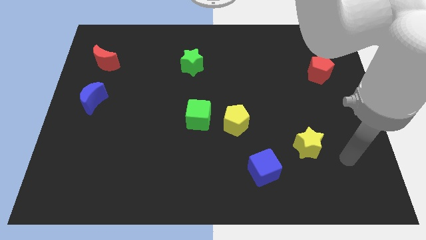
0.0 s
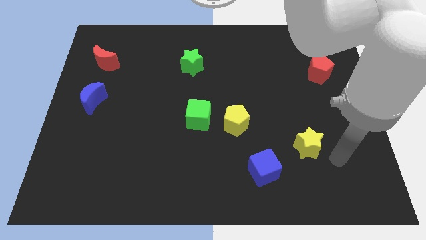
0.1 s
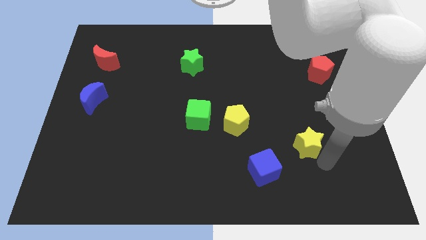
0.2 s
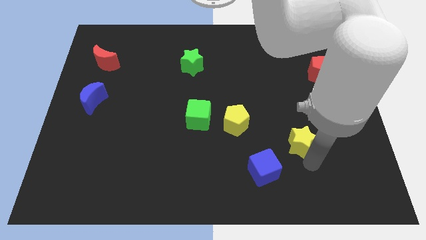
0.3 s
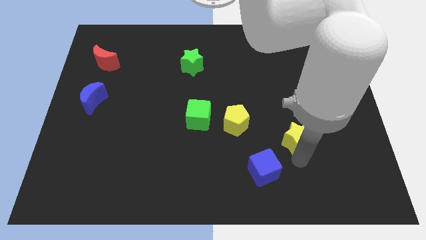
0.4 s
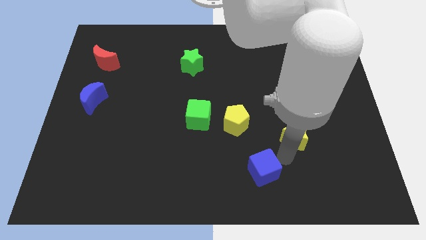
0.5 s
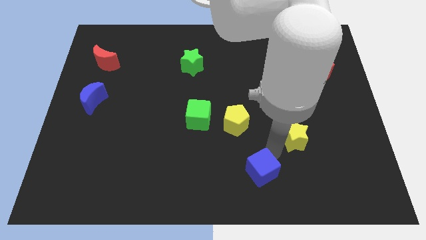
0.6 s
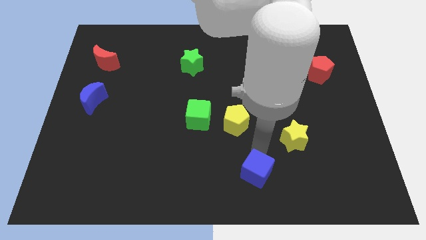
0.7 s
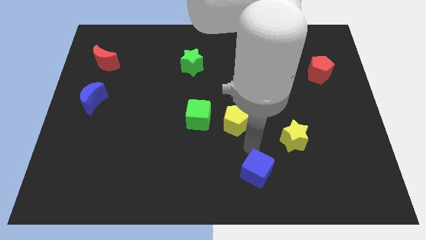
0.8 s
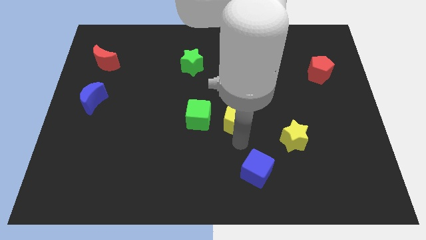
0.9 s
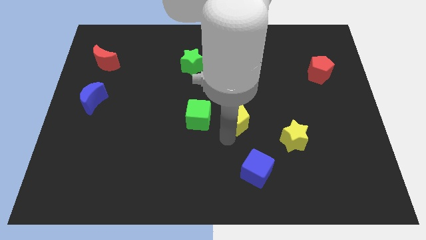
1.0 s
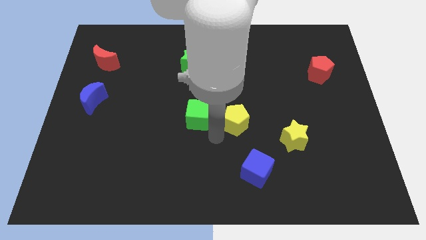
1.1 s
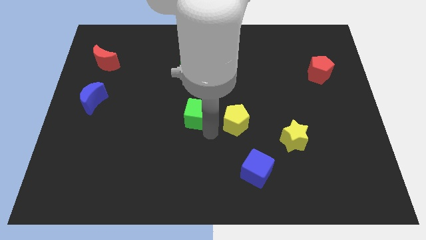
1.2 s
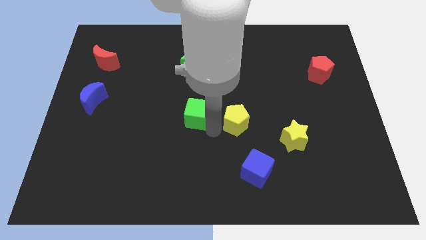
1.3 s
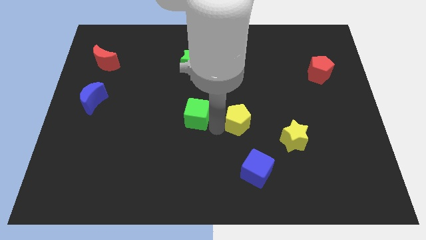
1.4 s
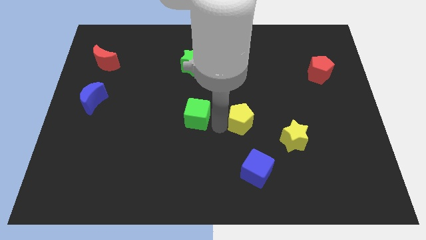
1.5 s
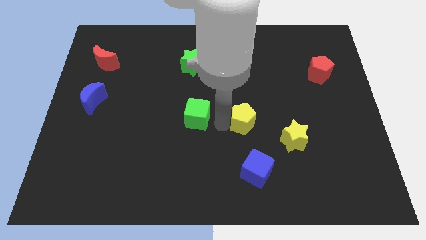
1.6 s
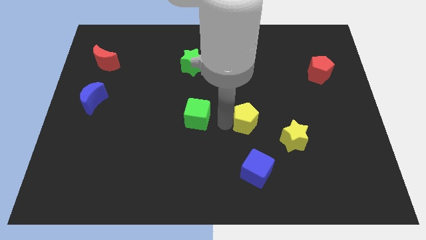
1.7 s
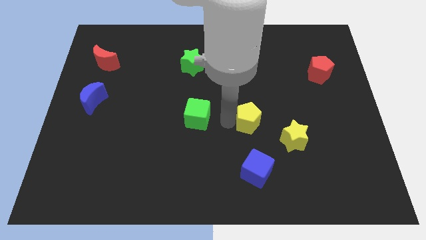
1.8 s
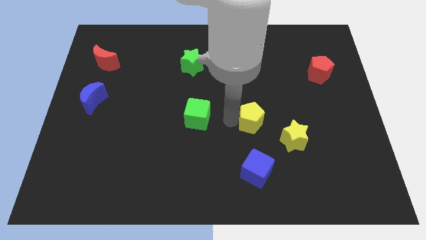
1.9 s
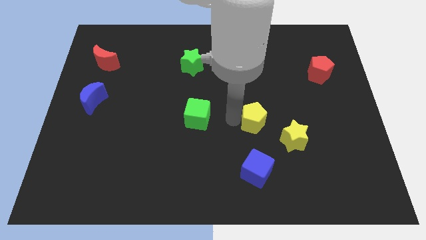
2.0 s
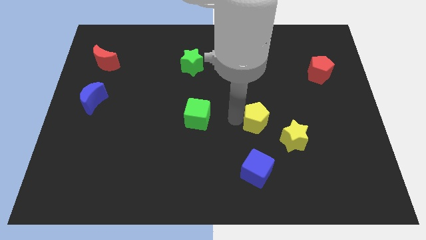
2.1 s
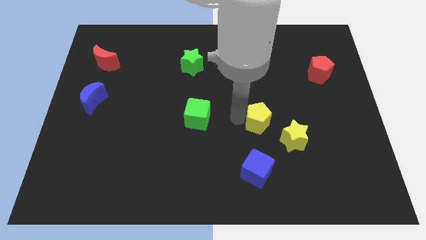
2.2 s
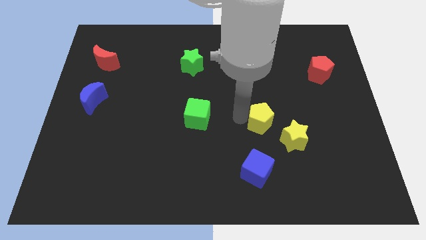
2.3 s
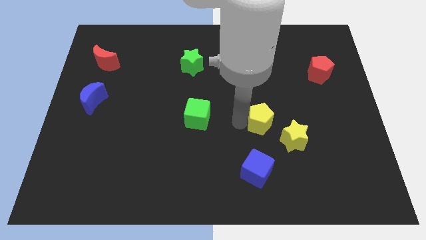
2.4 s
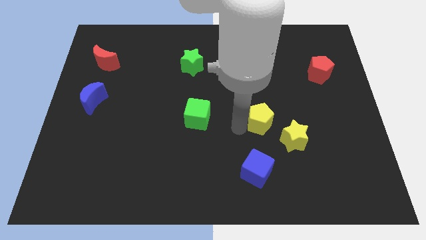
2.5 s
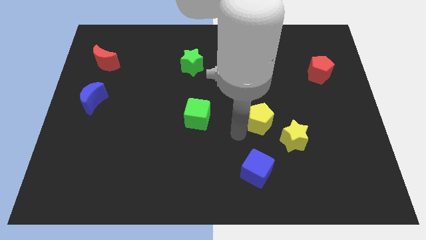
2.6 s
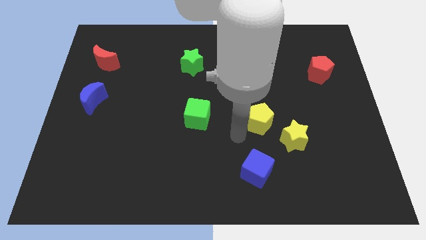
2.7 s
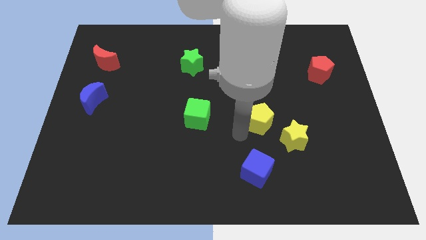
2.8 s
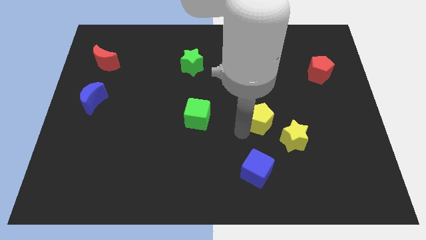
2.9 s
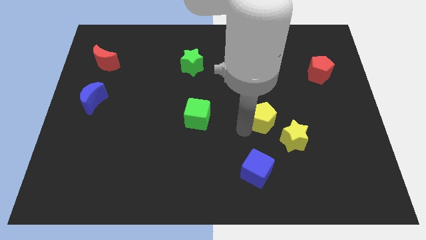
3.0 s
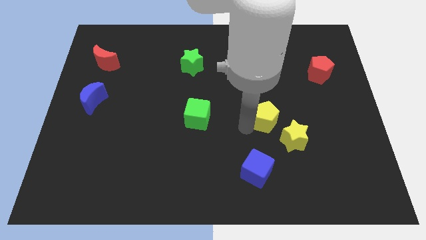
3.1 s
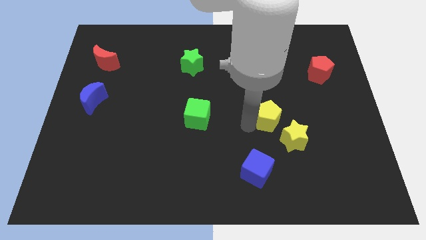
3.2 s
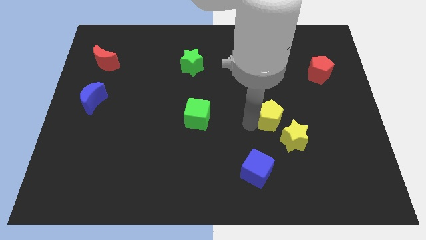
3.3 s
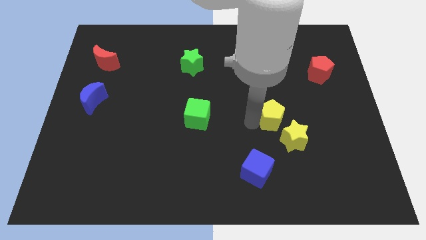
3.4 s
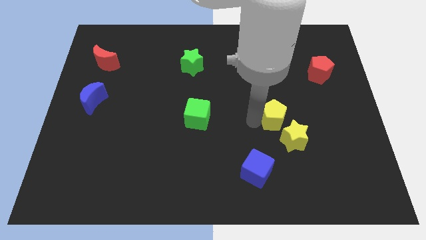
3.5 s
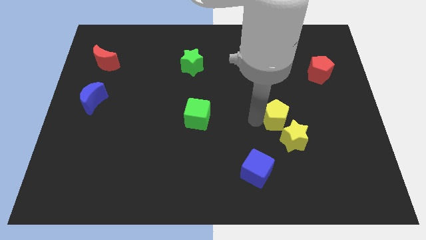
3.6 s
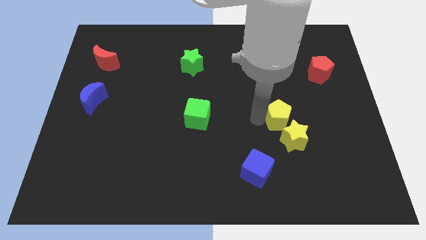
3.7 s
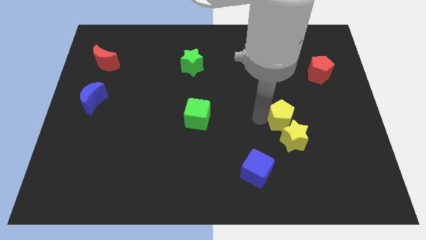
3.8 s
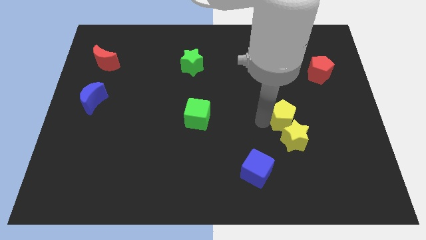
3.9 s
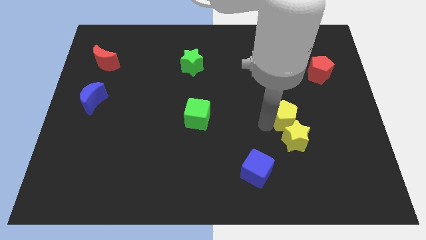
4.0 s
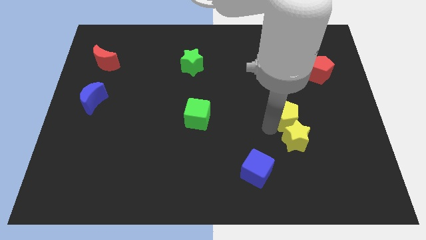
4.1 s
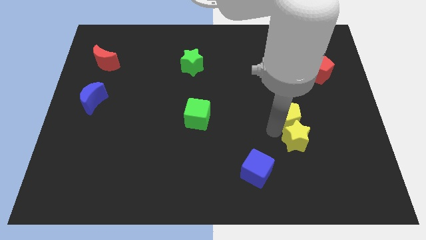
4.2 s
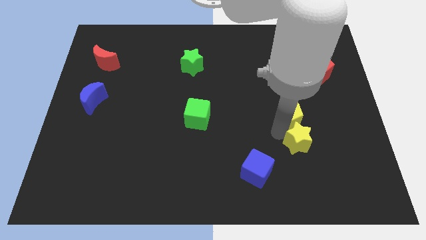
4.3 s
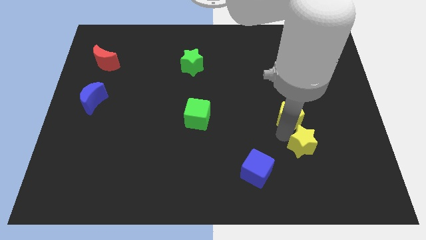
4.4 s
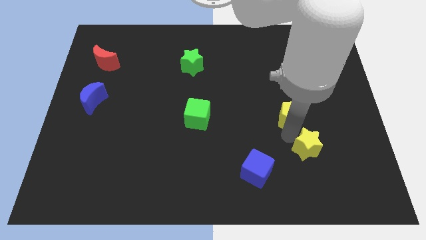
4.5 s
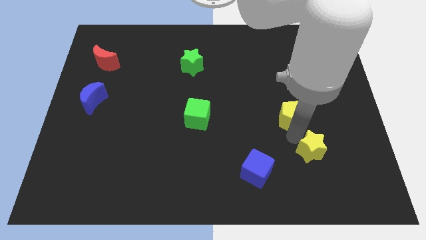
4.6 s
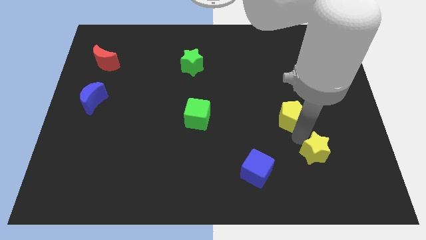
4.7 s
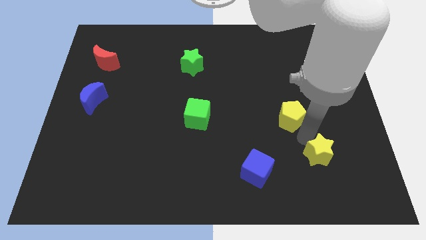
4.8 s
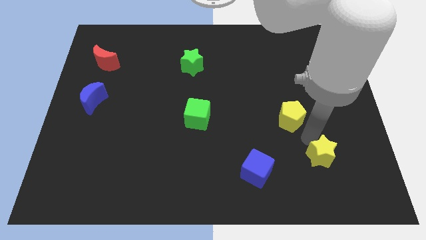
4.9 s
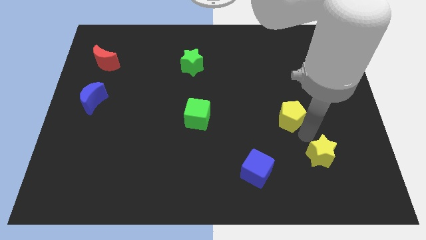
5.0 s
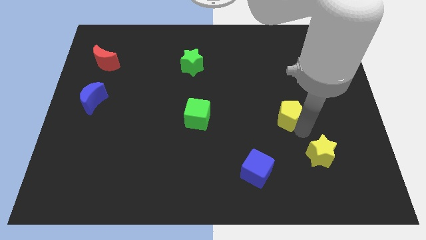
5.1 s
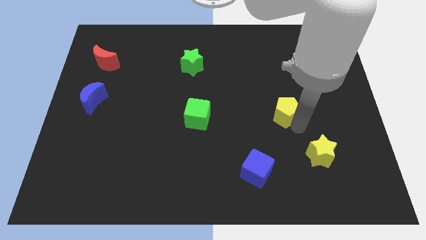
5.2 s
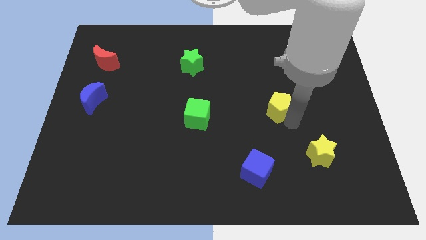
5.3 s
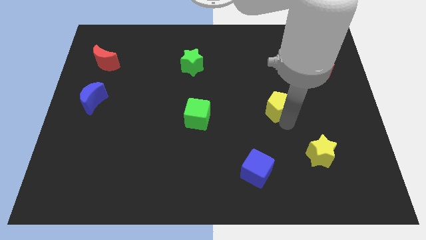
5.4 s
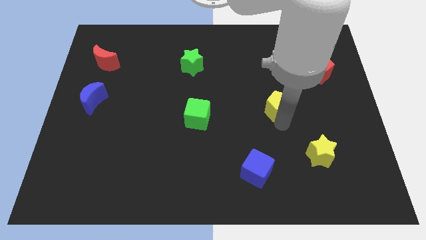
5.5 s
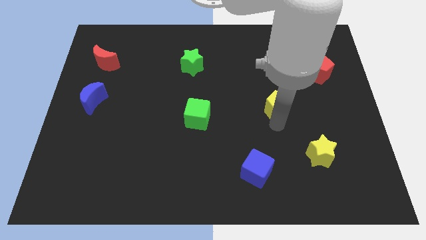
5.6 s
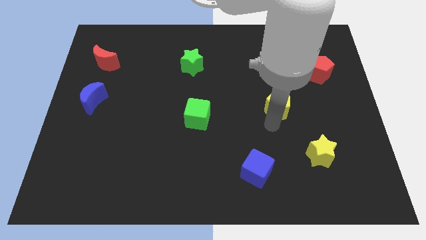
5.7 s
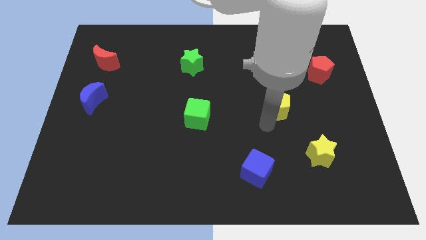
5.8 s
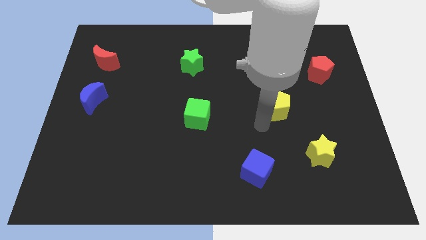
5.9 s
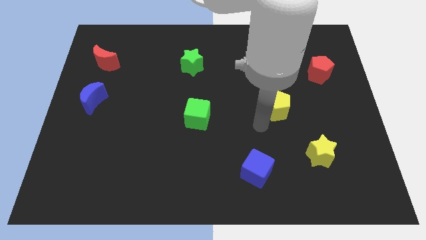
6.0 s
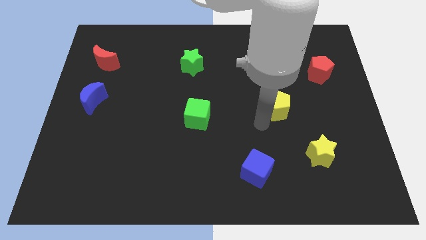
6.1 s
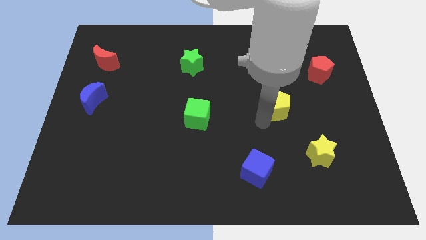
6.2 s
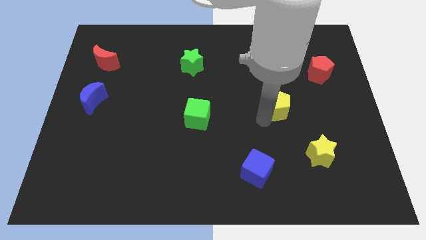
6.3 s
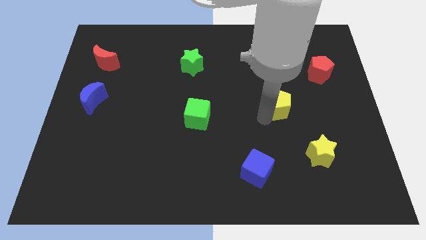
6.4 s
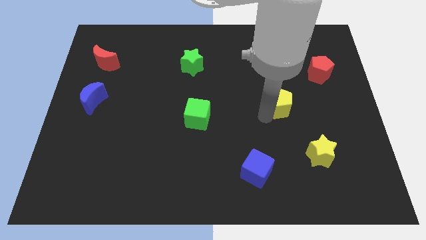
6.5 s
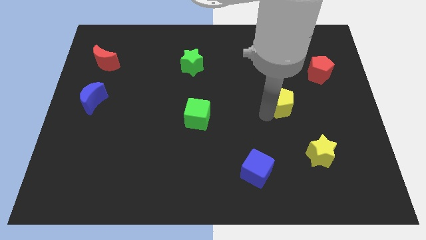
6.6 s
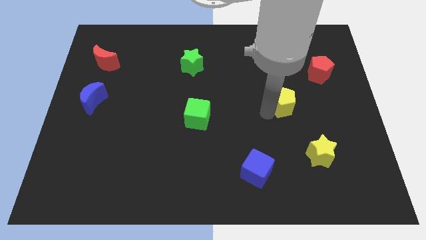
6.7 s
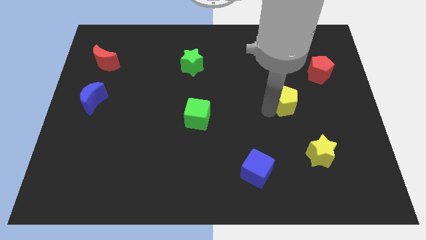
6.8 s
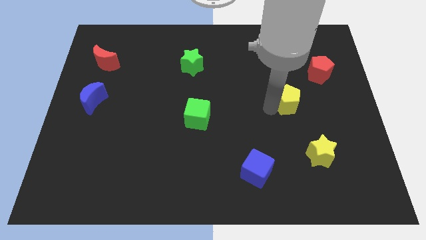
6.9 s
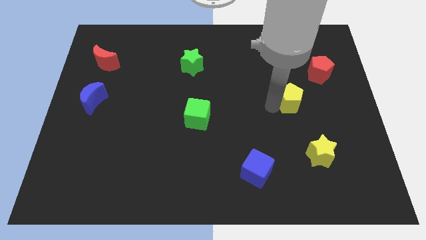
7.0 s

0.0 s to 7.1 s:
slide the yellow pentagon to the bottom left side of the red pentagon
